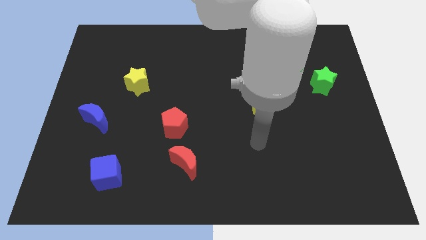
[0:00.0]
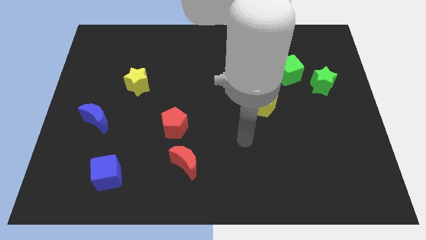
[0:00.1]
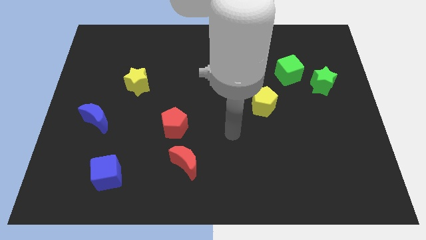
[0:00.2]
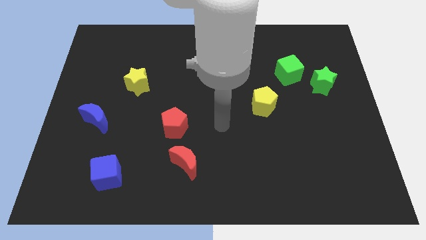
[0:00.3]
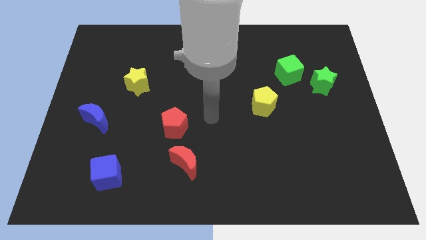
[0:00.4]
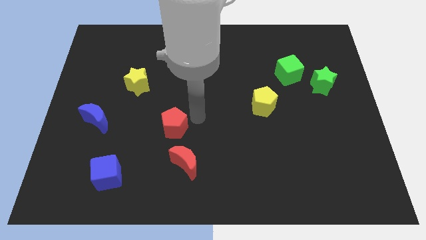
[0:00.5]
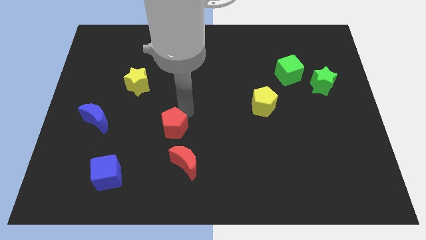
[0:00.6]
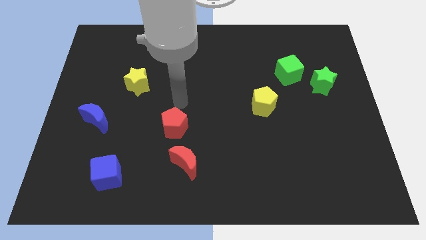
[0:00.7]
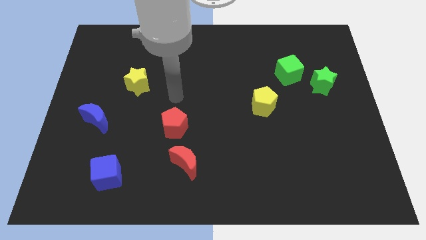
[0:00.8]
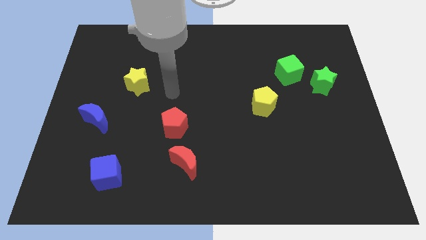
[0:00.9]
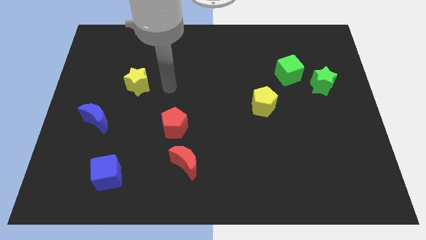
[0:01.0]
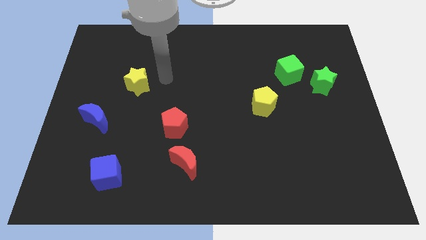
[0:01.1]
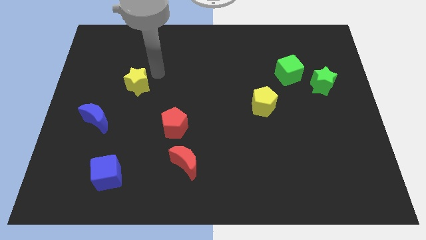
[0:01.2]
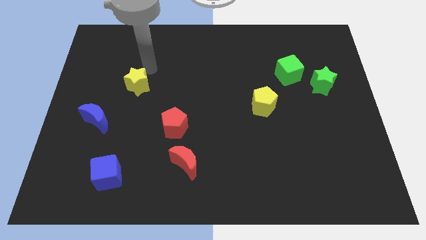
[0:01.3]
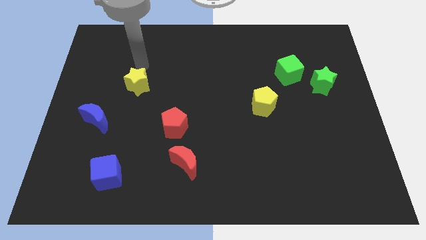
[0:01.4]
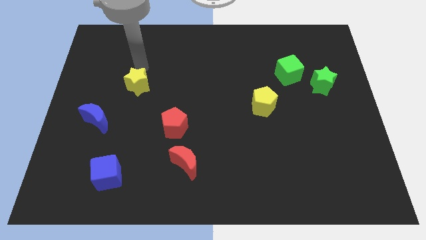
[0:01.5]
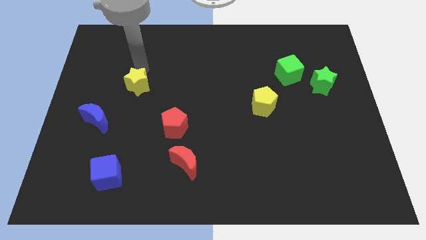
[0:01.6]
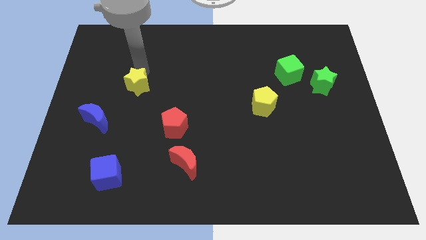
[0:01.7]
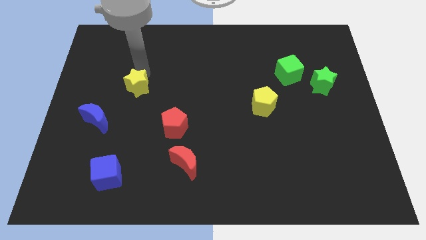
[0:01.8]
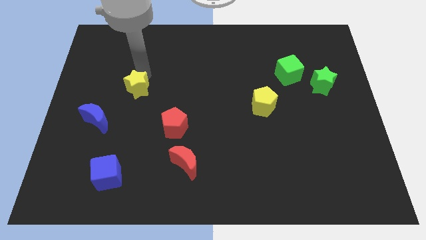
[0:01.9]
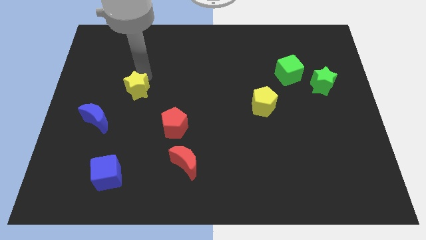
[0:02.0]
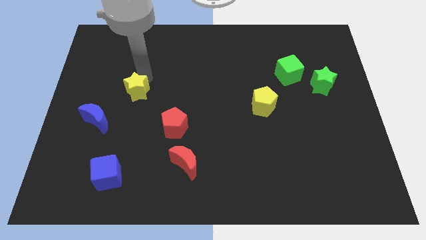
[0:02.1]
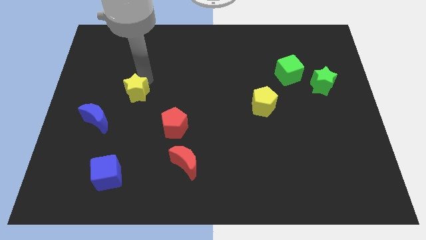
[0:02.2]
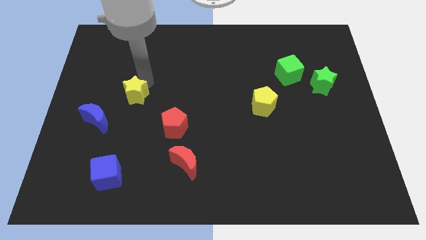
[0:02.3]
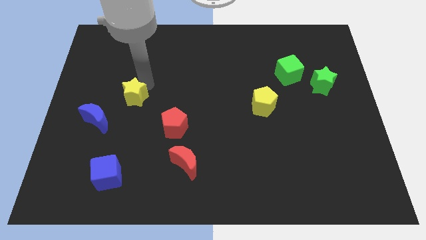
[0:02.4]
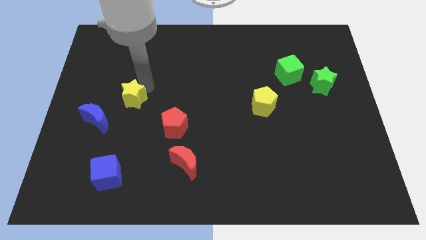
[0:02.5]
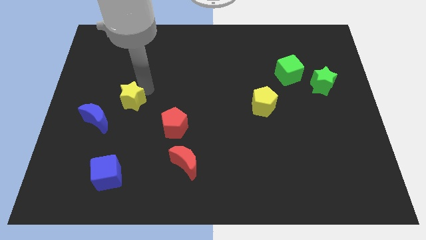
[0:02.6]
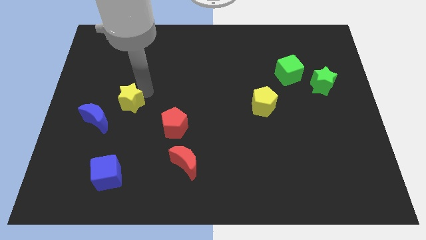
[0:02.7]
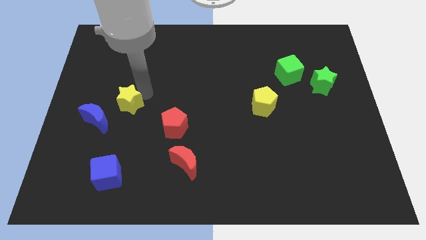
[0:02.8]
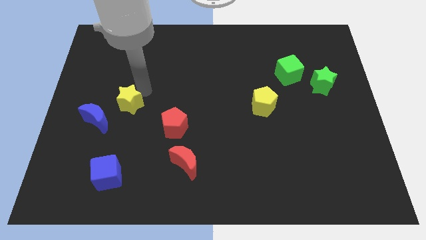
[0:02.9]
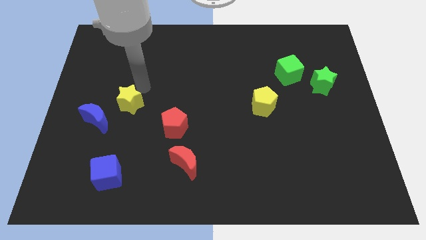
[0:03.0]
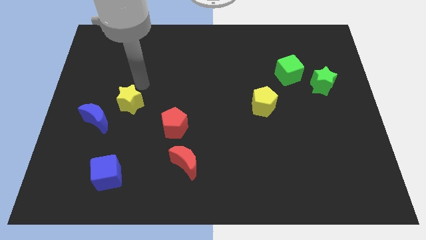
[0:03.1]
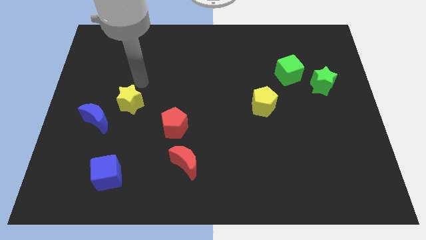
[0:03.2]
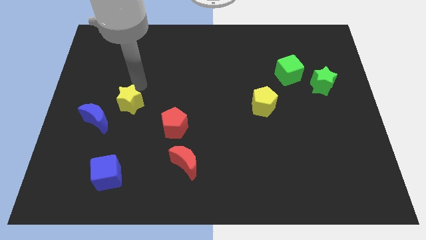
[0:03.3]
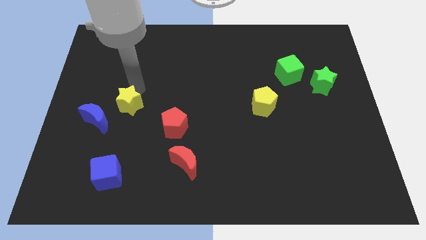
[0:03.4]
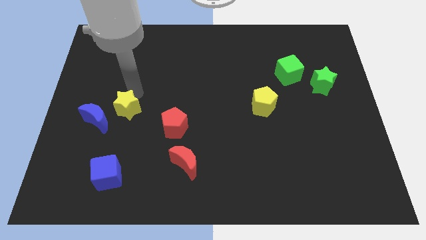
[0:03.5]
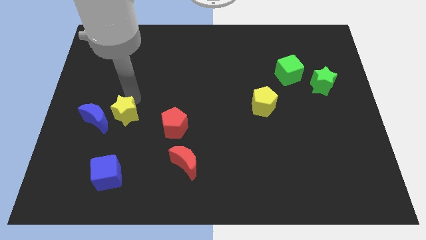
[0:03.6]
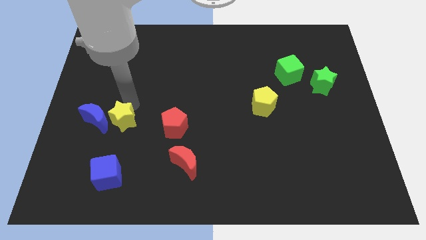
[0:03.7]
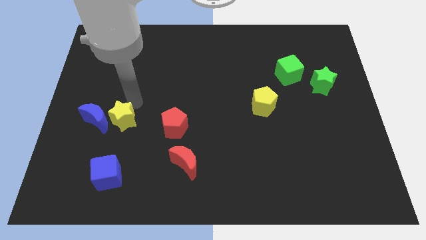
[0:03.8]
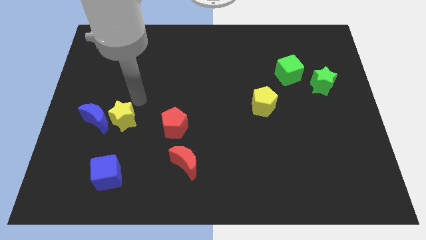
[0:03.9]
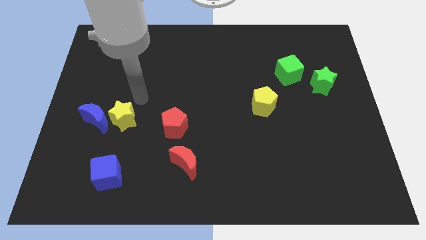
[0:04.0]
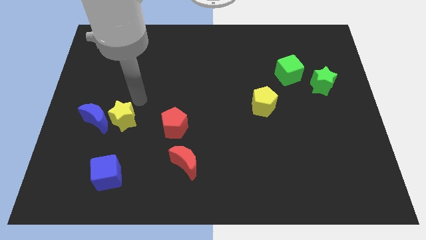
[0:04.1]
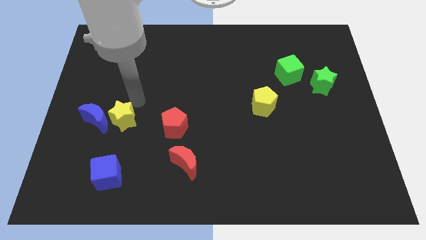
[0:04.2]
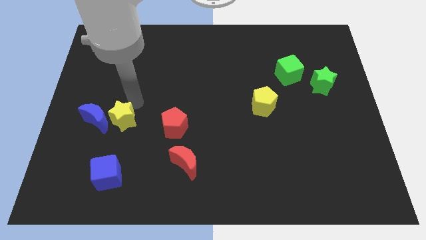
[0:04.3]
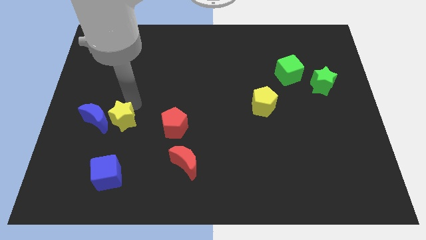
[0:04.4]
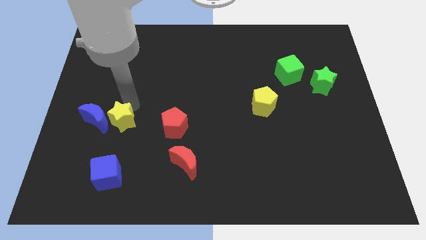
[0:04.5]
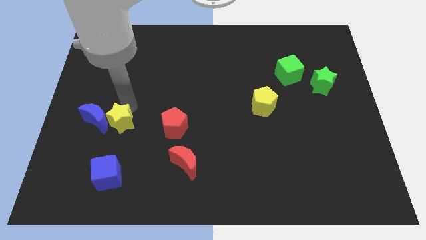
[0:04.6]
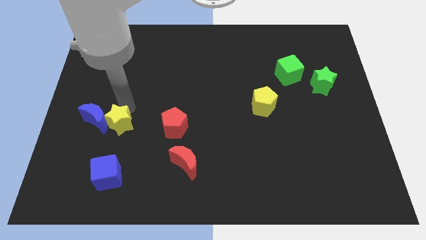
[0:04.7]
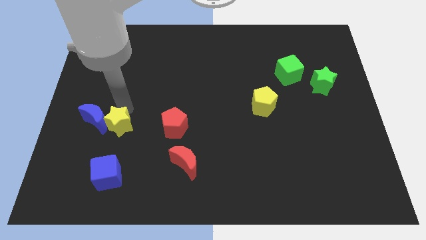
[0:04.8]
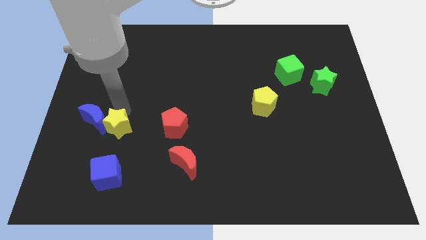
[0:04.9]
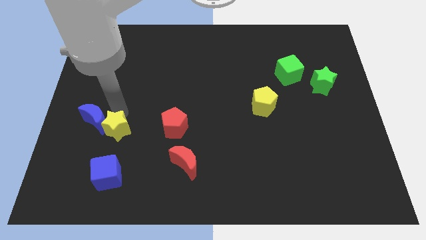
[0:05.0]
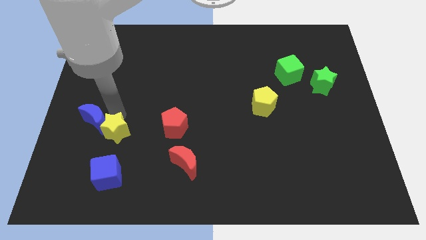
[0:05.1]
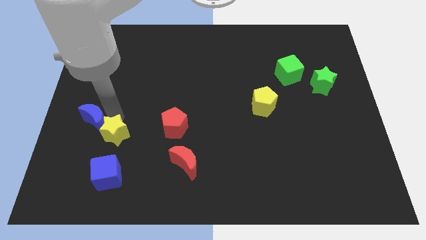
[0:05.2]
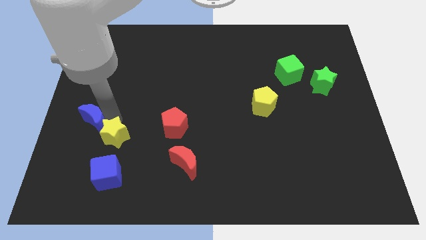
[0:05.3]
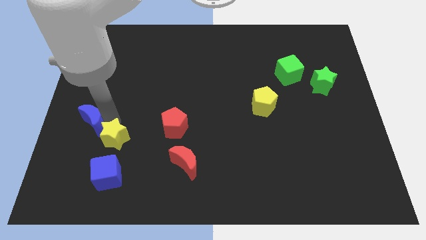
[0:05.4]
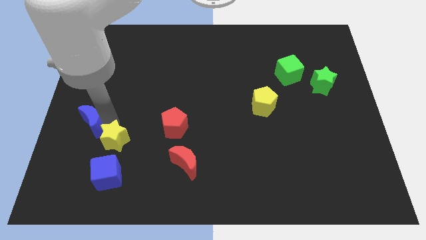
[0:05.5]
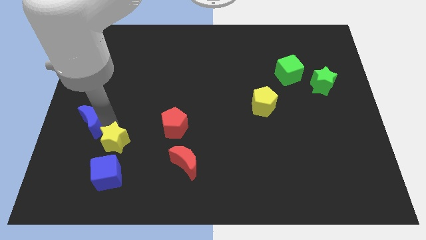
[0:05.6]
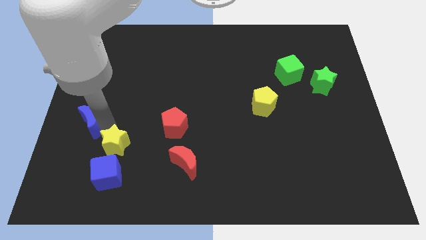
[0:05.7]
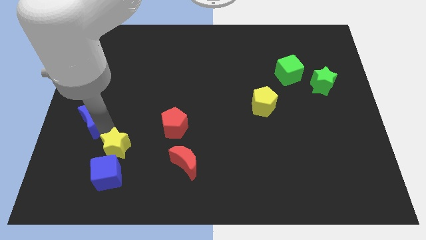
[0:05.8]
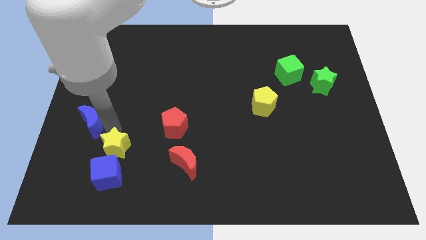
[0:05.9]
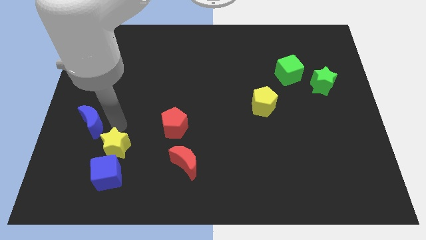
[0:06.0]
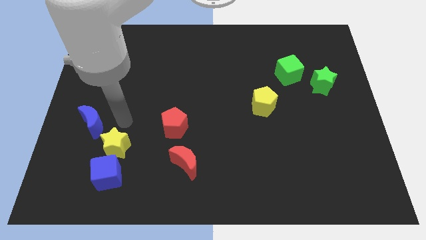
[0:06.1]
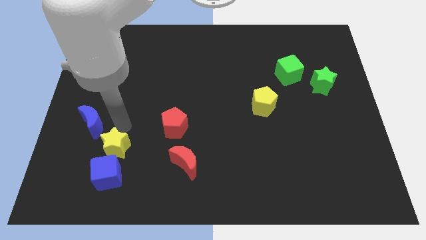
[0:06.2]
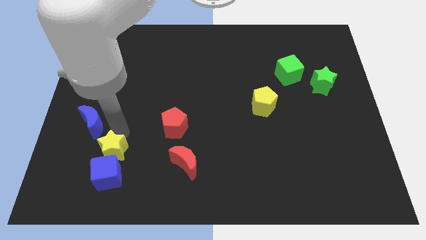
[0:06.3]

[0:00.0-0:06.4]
move the yellow star close to the blue cube
